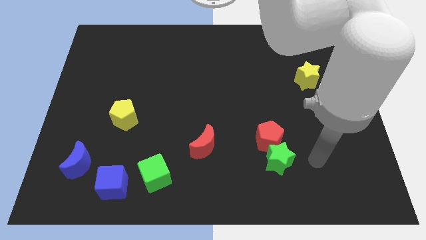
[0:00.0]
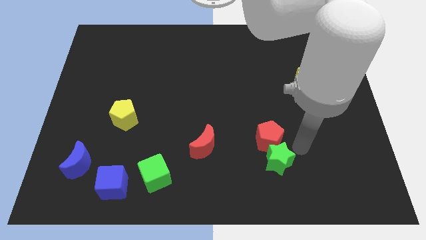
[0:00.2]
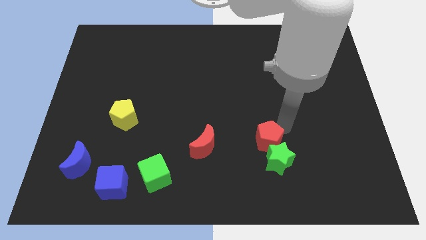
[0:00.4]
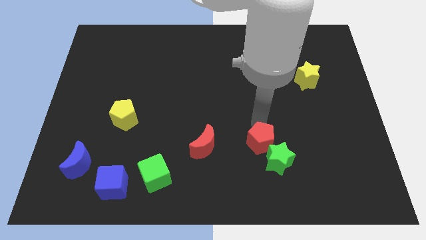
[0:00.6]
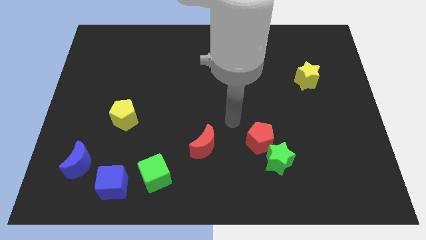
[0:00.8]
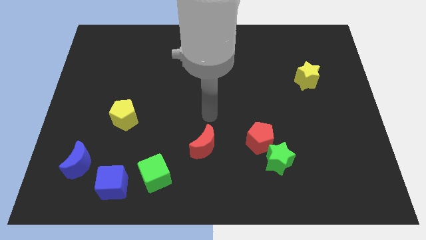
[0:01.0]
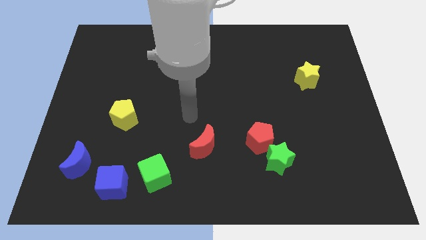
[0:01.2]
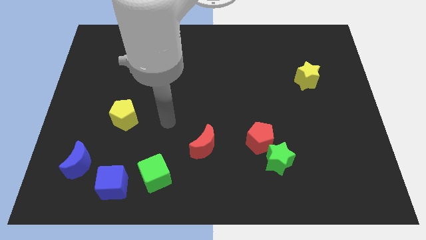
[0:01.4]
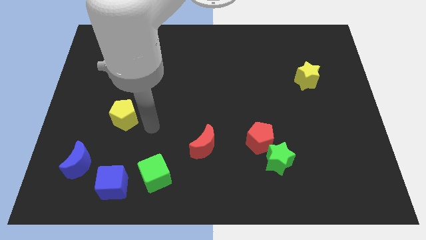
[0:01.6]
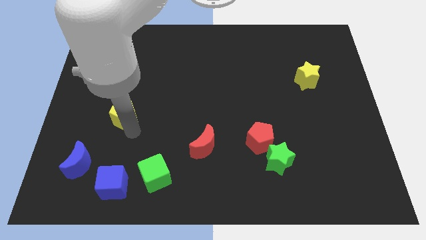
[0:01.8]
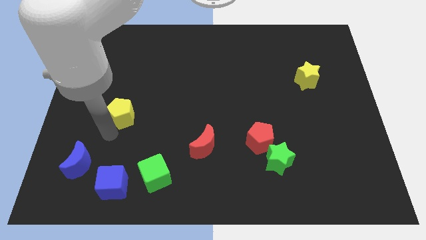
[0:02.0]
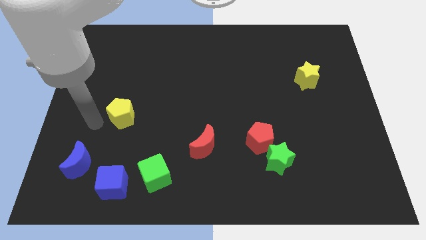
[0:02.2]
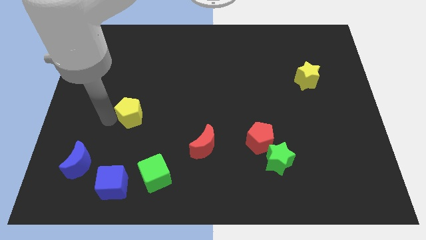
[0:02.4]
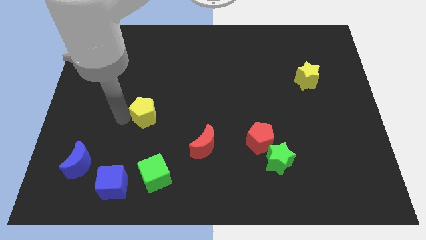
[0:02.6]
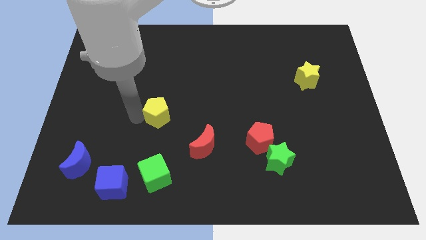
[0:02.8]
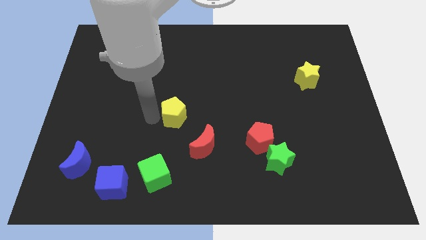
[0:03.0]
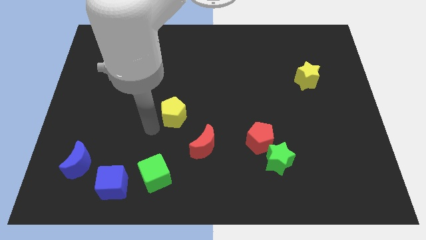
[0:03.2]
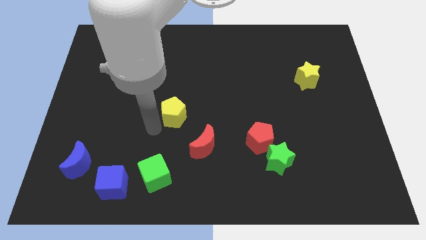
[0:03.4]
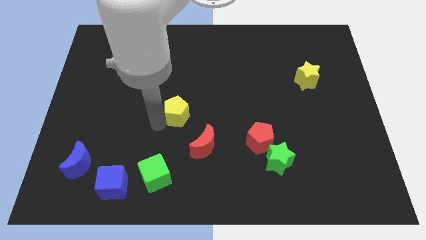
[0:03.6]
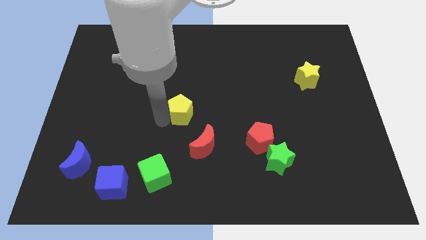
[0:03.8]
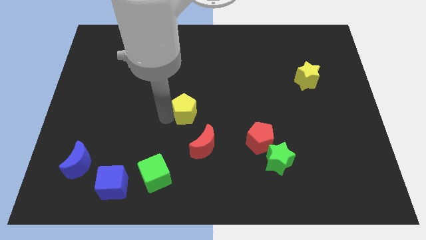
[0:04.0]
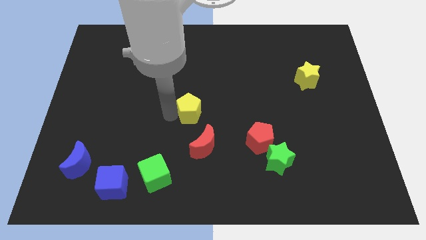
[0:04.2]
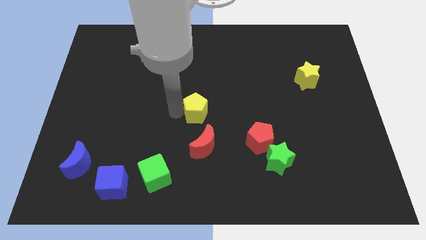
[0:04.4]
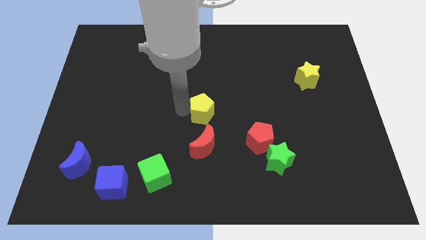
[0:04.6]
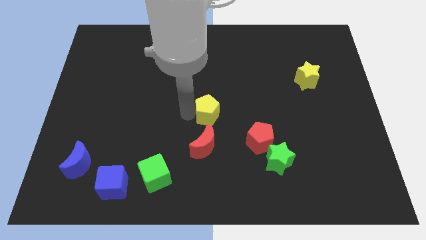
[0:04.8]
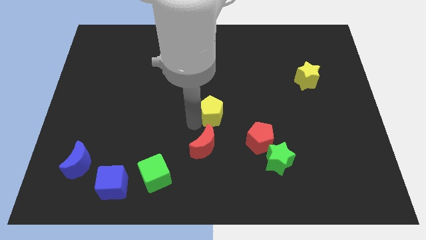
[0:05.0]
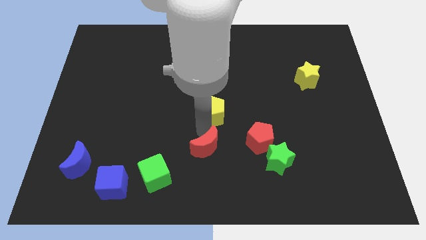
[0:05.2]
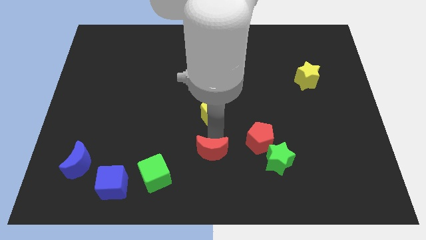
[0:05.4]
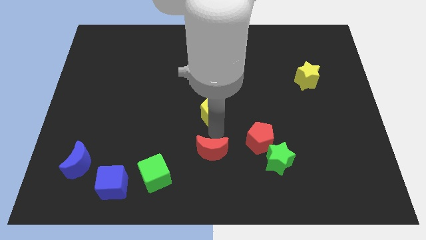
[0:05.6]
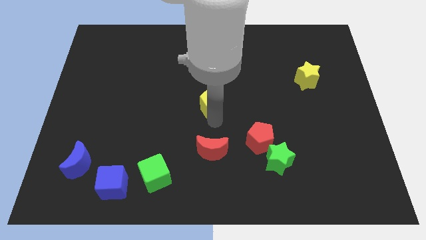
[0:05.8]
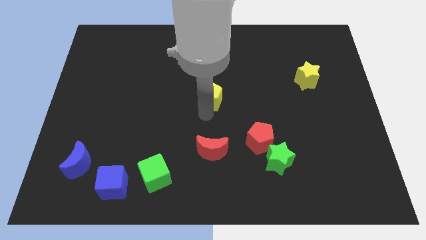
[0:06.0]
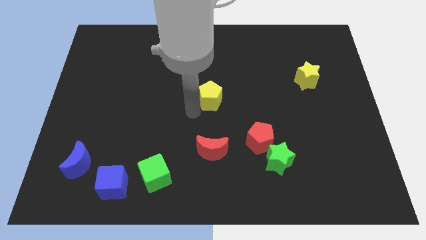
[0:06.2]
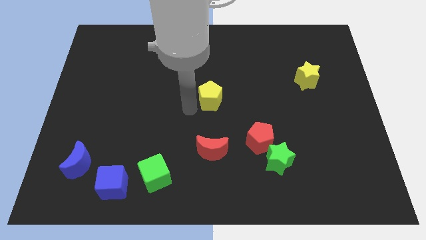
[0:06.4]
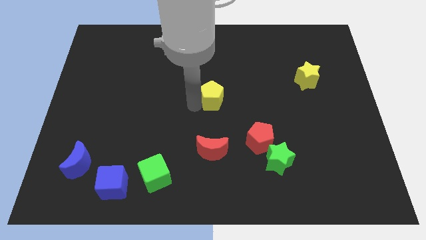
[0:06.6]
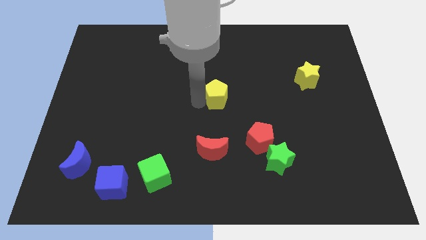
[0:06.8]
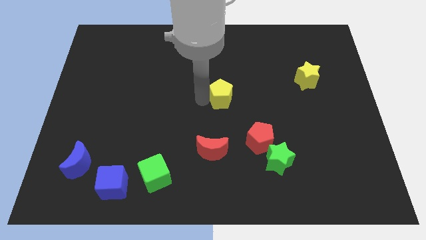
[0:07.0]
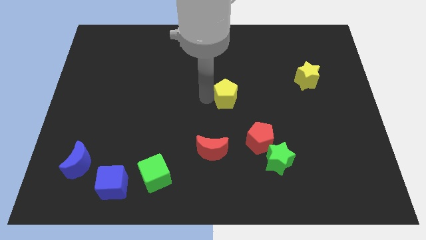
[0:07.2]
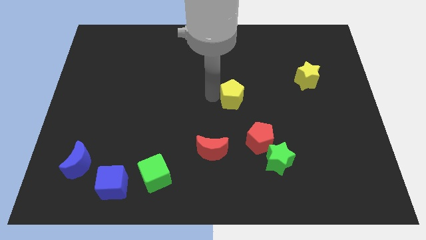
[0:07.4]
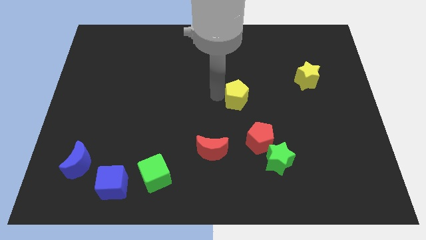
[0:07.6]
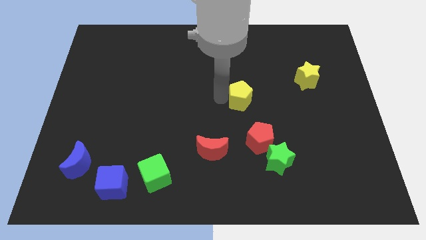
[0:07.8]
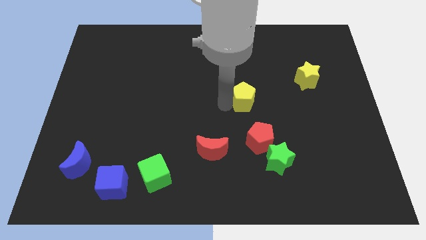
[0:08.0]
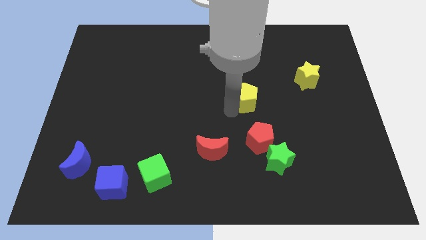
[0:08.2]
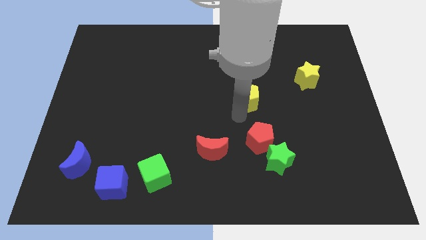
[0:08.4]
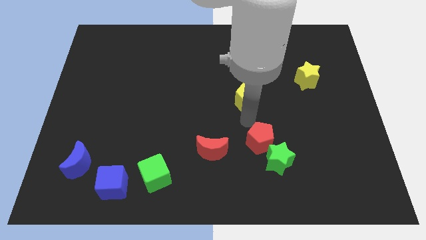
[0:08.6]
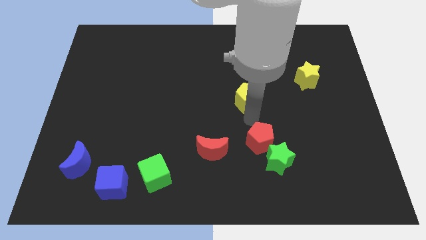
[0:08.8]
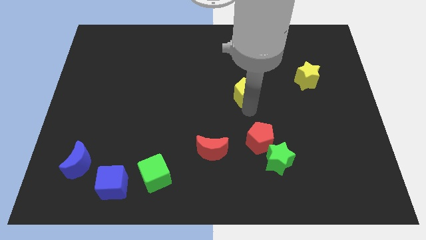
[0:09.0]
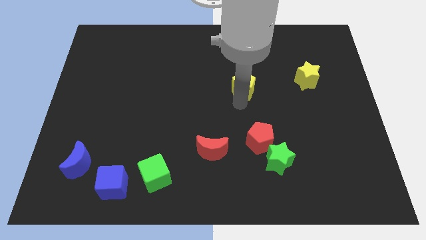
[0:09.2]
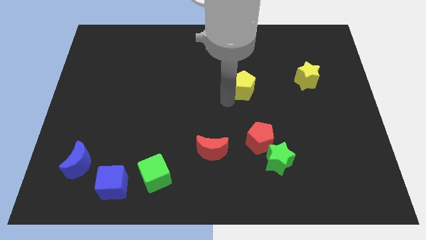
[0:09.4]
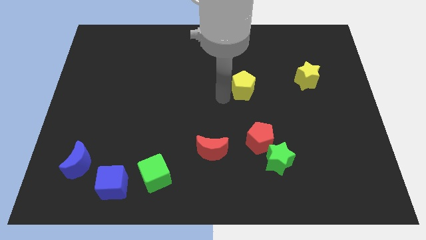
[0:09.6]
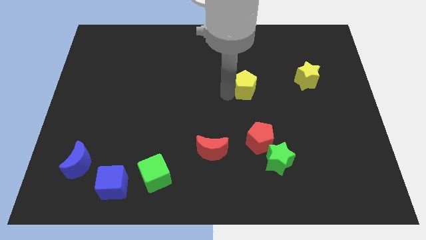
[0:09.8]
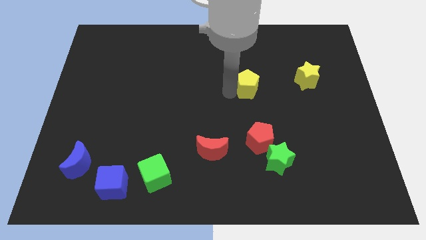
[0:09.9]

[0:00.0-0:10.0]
put the yellow pentagon left of the yellow star

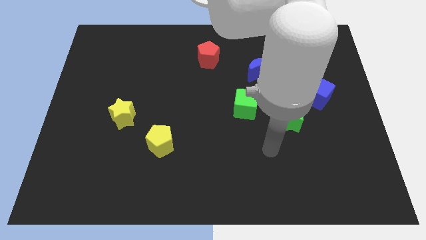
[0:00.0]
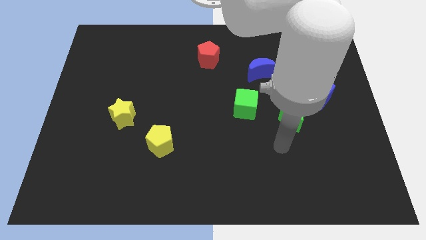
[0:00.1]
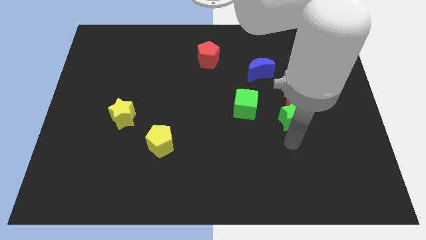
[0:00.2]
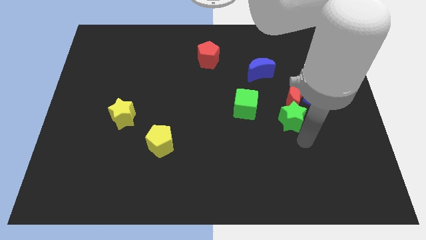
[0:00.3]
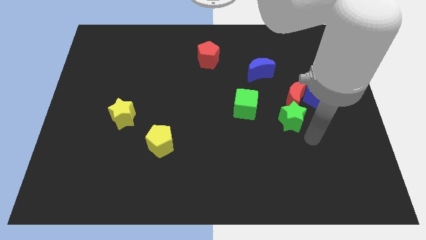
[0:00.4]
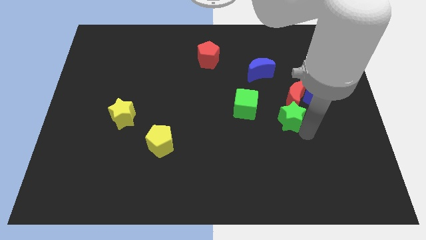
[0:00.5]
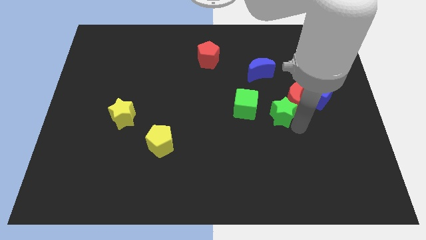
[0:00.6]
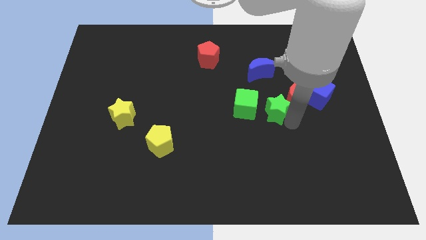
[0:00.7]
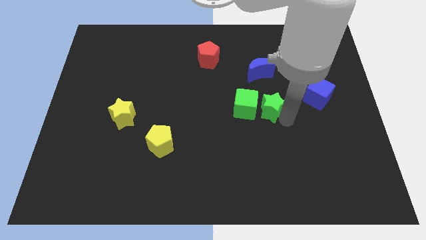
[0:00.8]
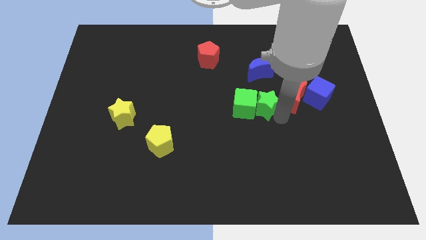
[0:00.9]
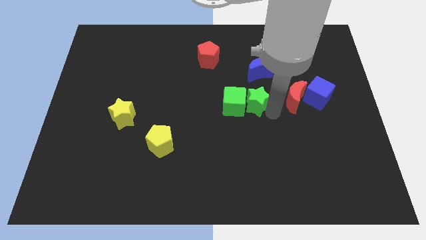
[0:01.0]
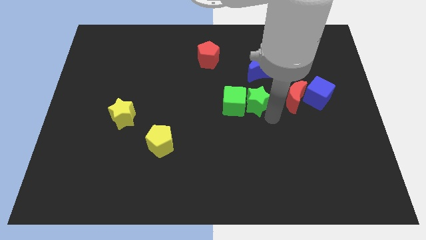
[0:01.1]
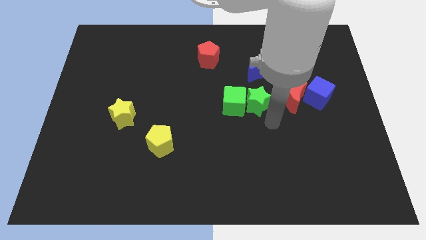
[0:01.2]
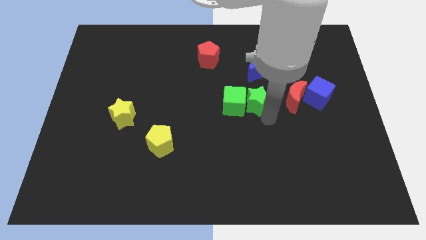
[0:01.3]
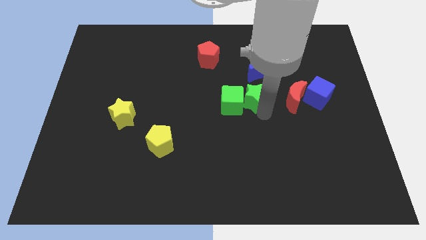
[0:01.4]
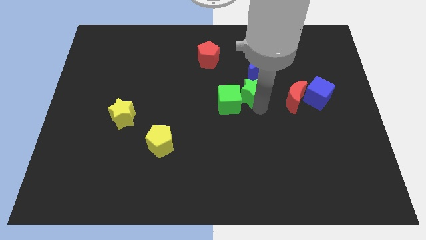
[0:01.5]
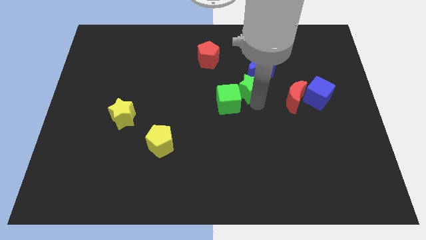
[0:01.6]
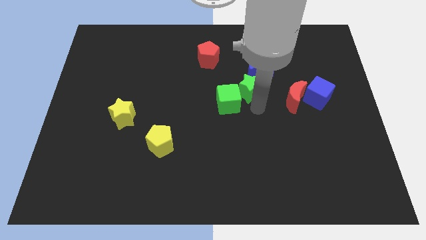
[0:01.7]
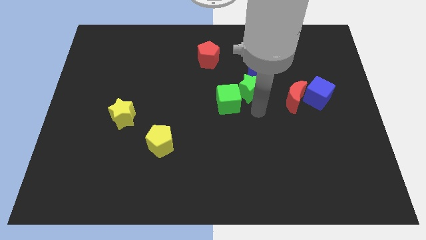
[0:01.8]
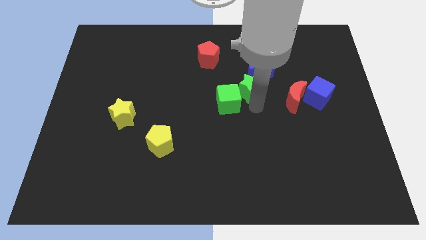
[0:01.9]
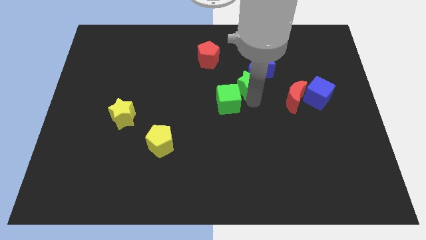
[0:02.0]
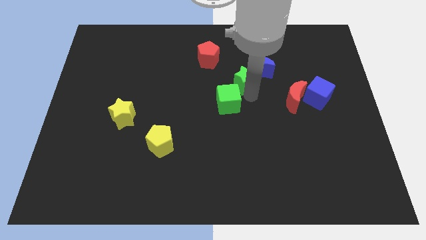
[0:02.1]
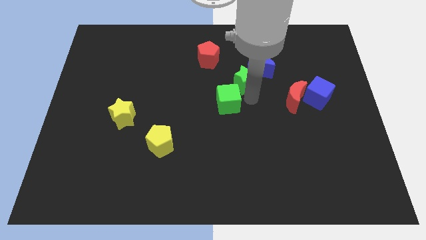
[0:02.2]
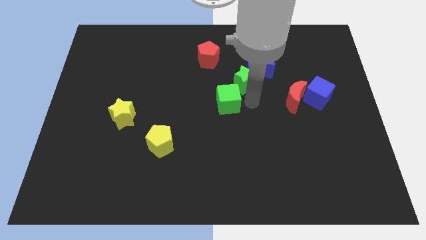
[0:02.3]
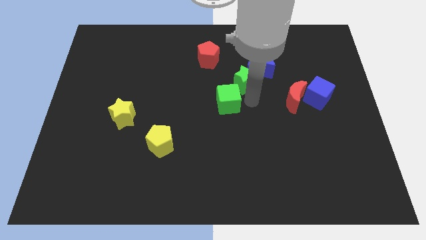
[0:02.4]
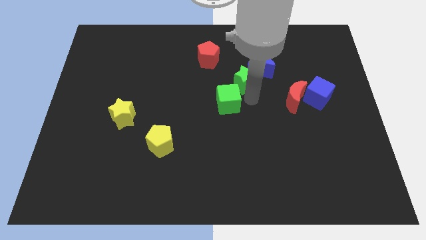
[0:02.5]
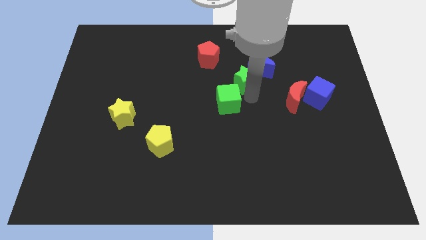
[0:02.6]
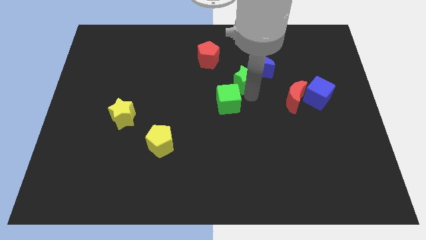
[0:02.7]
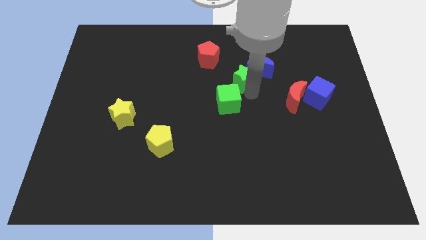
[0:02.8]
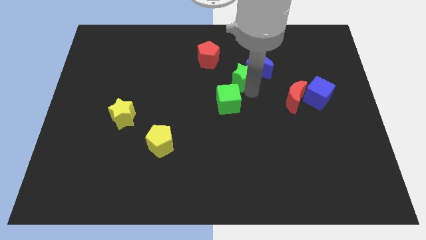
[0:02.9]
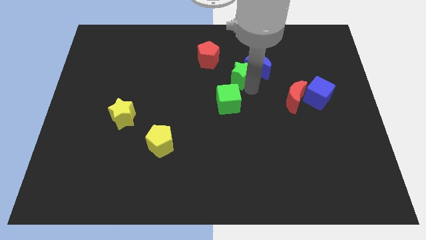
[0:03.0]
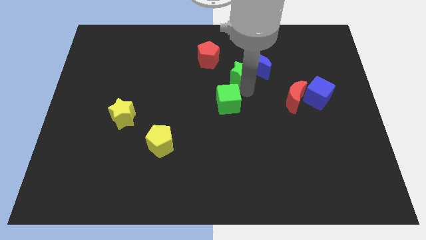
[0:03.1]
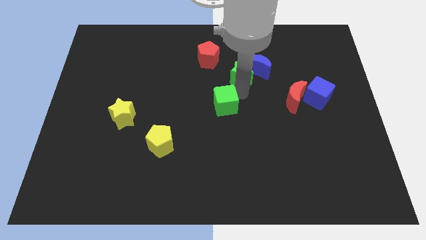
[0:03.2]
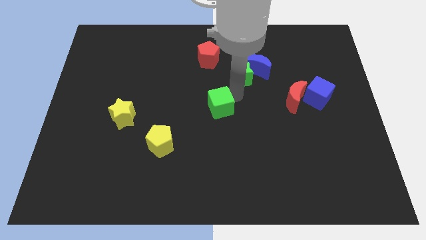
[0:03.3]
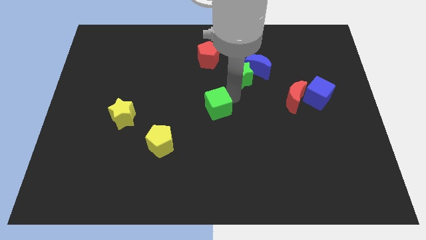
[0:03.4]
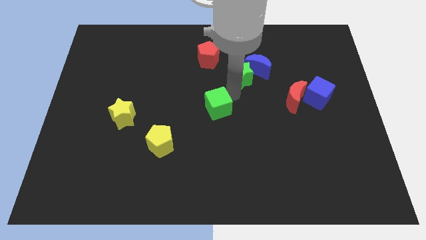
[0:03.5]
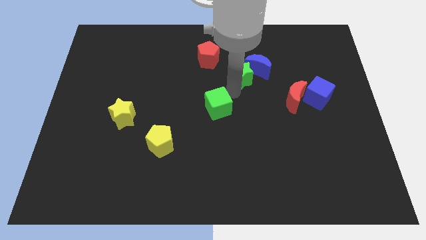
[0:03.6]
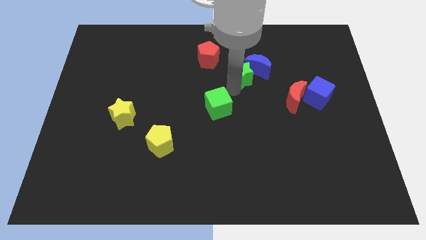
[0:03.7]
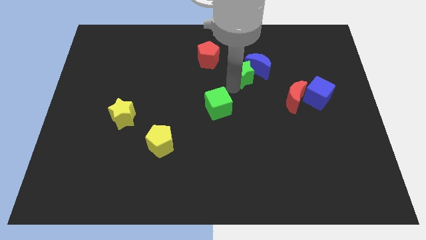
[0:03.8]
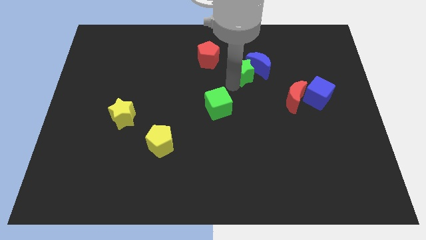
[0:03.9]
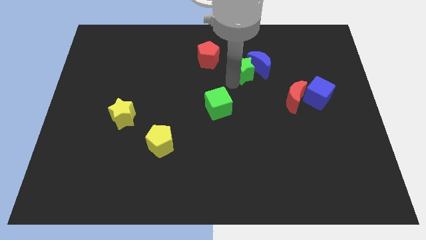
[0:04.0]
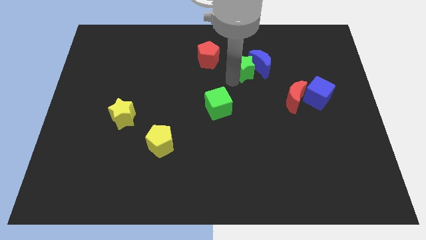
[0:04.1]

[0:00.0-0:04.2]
put the green star just right of the red pentagon
